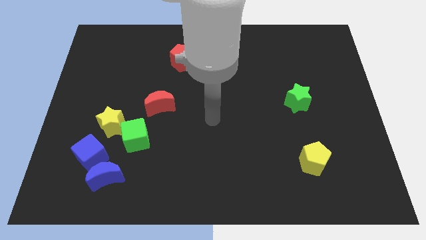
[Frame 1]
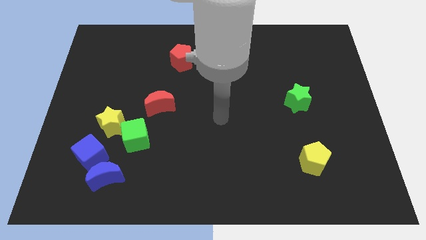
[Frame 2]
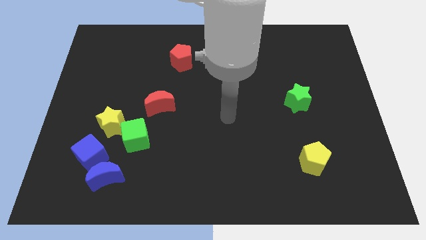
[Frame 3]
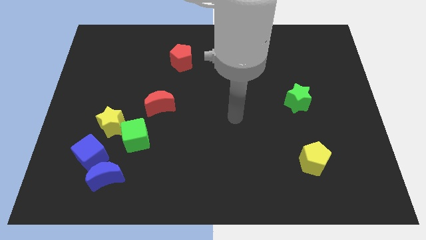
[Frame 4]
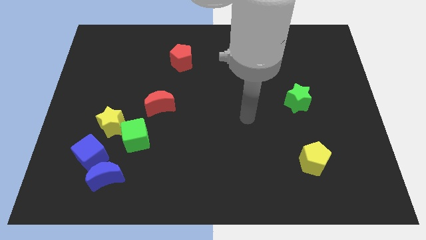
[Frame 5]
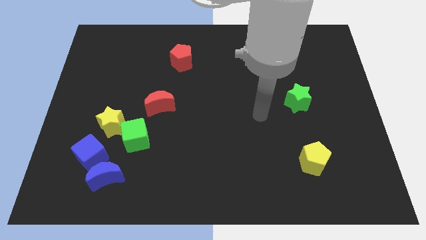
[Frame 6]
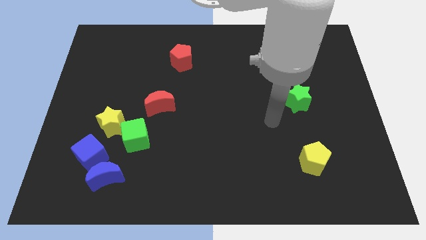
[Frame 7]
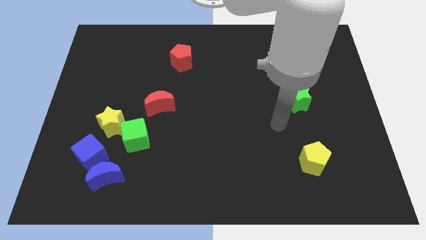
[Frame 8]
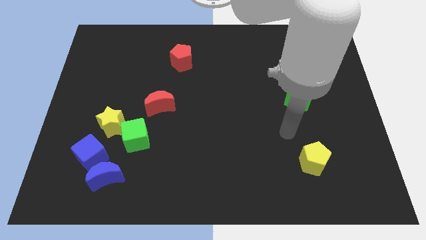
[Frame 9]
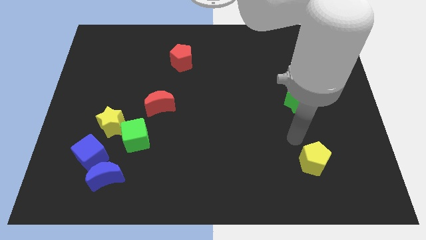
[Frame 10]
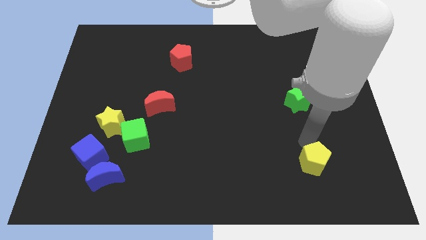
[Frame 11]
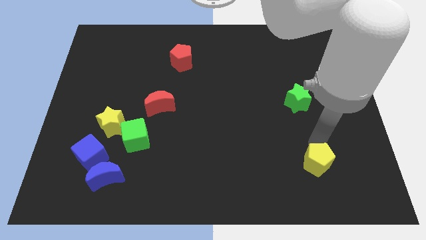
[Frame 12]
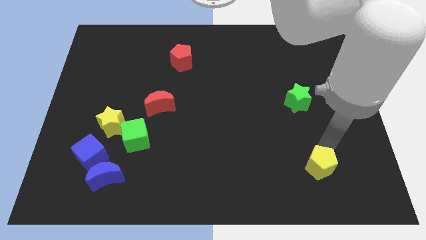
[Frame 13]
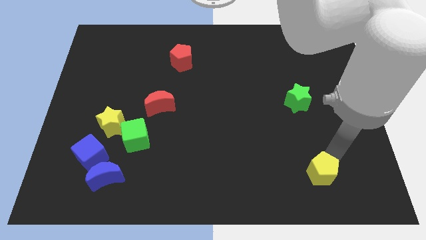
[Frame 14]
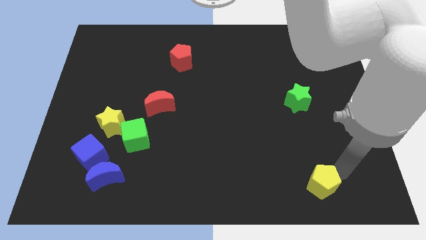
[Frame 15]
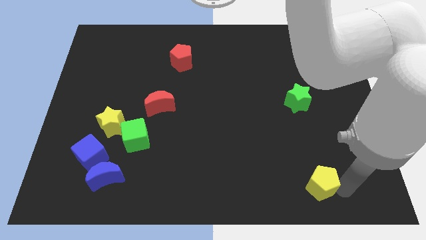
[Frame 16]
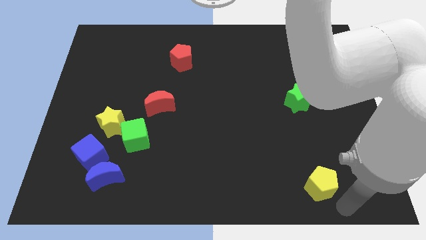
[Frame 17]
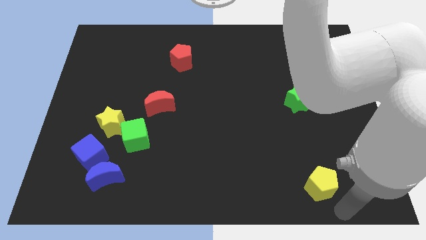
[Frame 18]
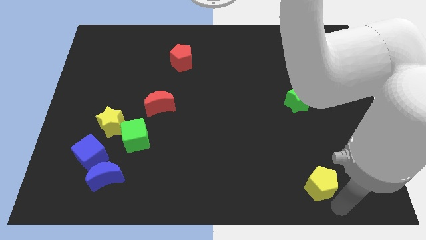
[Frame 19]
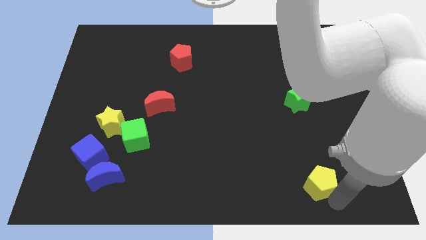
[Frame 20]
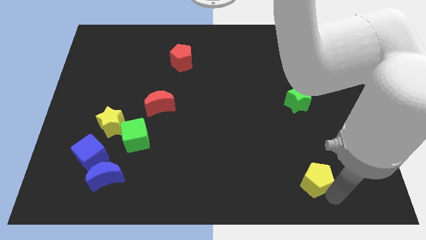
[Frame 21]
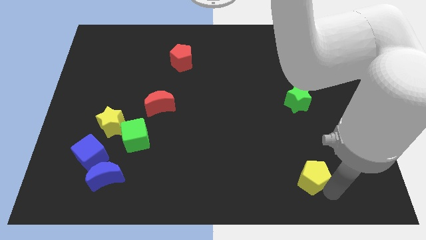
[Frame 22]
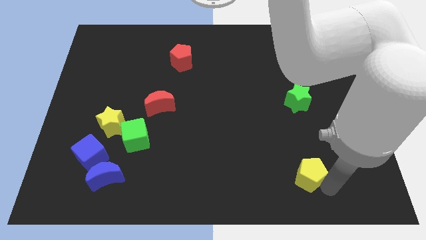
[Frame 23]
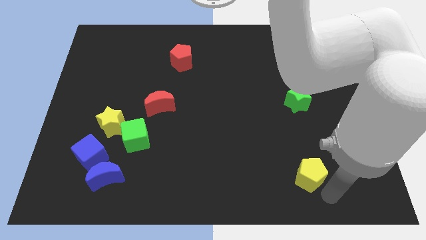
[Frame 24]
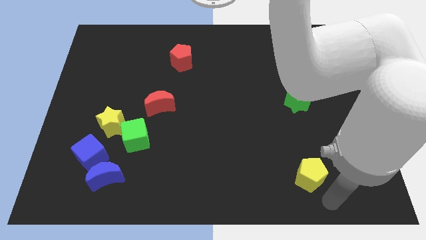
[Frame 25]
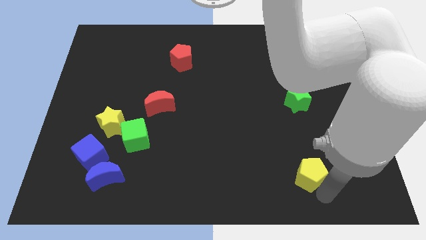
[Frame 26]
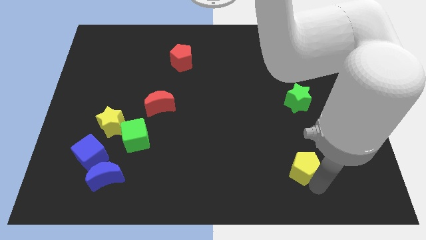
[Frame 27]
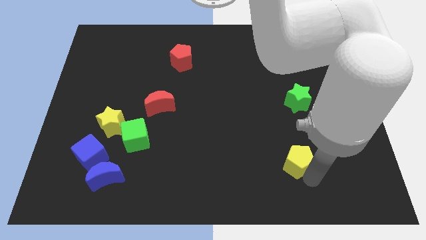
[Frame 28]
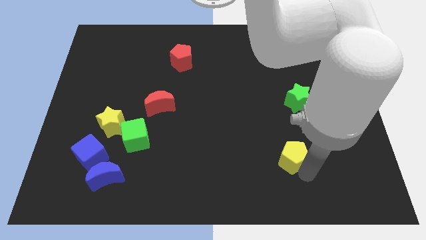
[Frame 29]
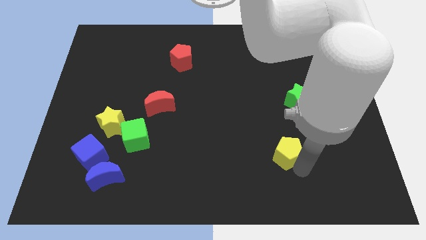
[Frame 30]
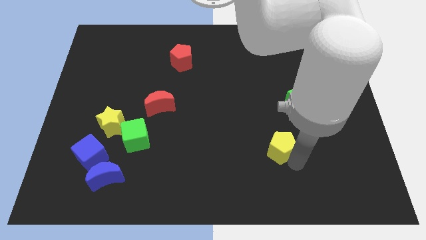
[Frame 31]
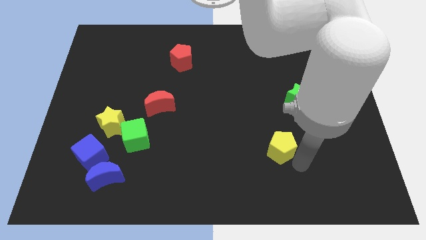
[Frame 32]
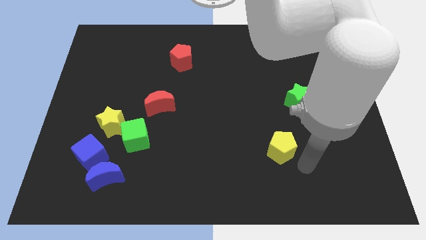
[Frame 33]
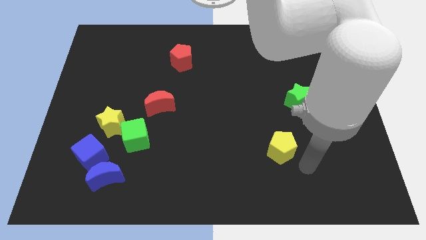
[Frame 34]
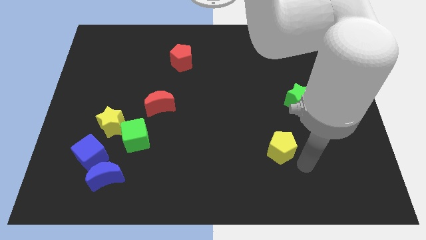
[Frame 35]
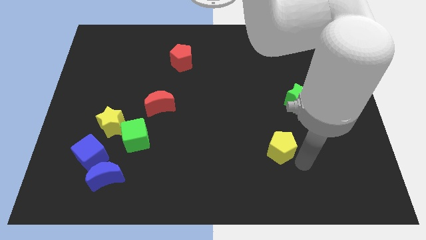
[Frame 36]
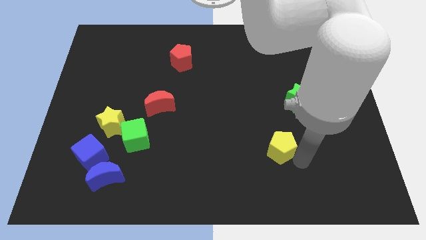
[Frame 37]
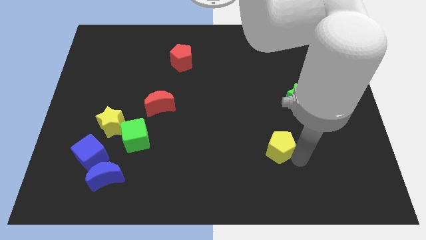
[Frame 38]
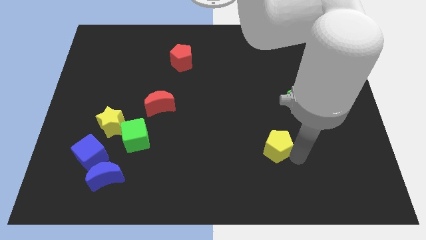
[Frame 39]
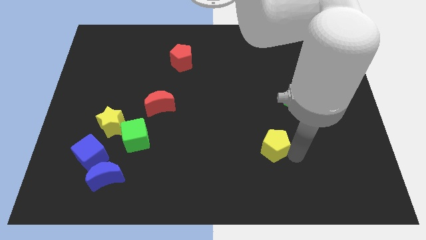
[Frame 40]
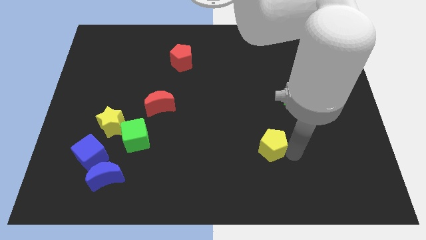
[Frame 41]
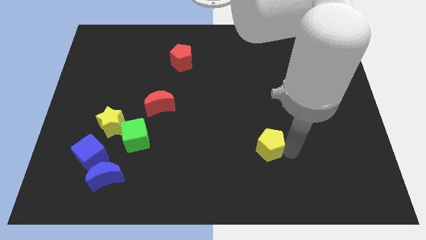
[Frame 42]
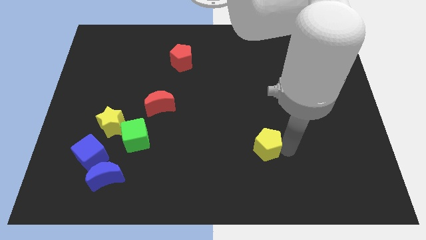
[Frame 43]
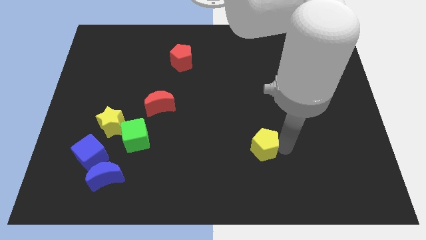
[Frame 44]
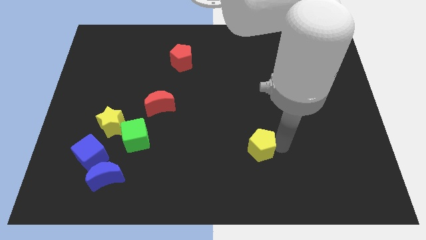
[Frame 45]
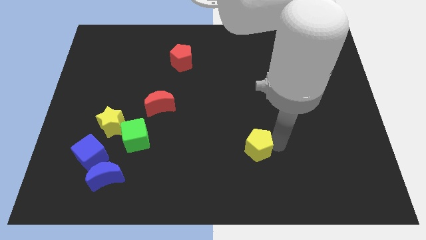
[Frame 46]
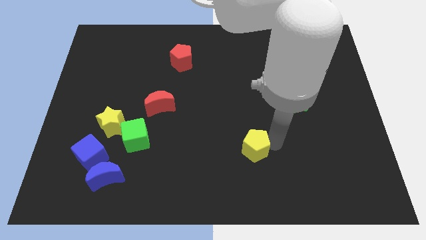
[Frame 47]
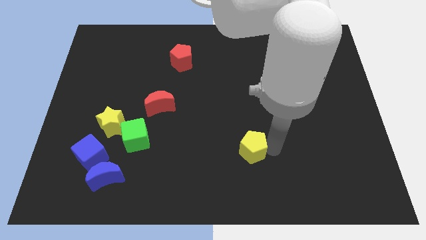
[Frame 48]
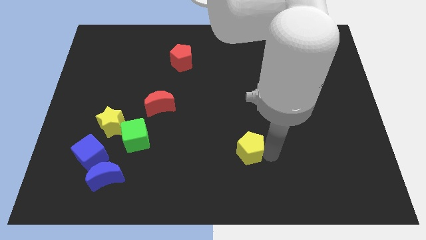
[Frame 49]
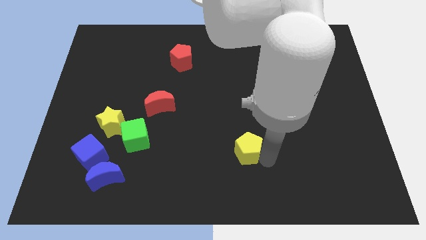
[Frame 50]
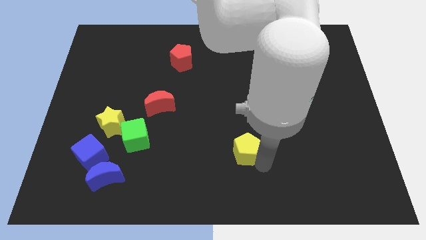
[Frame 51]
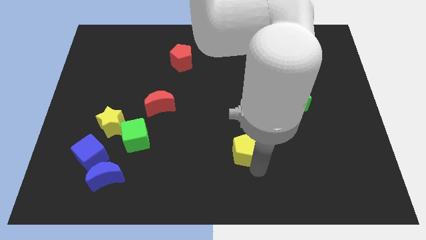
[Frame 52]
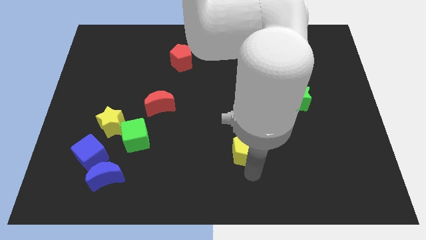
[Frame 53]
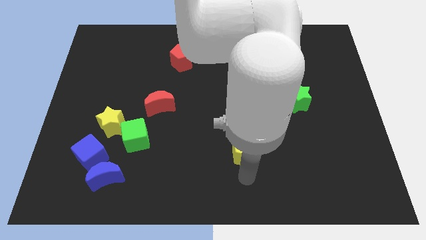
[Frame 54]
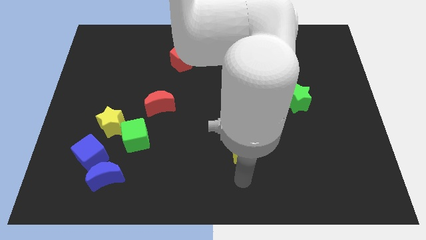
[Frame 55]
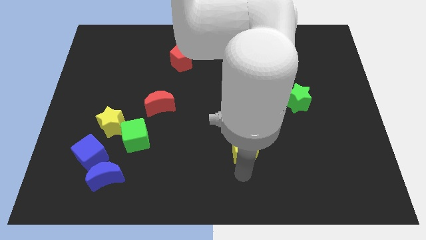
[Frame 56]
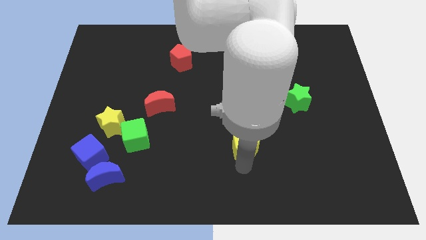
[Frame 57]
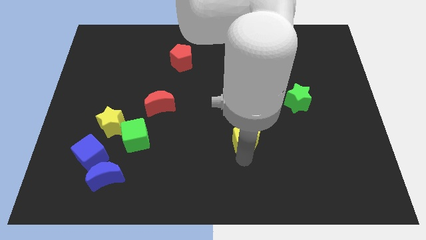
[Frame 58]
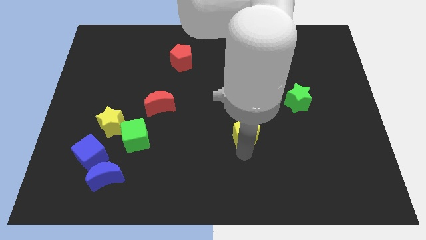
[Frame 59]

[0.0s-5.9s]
move the yellow pentagon to the center
